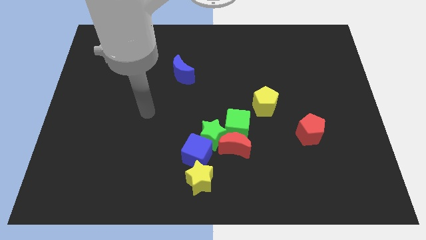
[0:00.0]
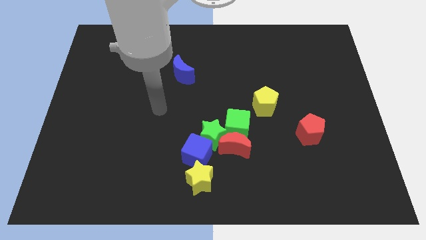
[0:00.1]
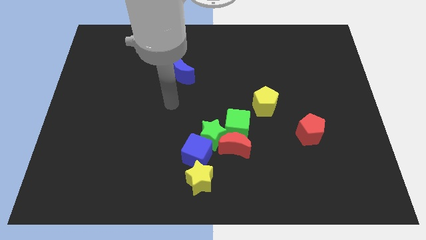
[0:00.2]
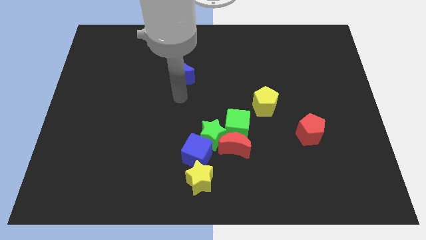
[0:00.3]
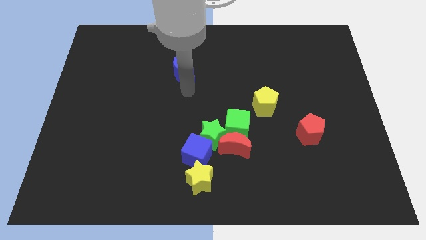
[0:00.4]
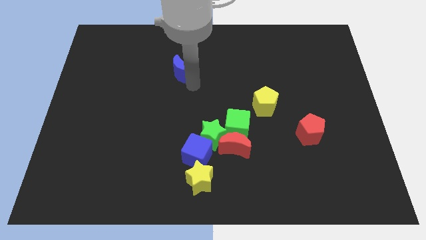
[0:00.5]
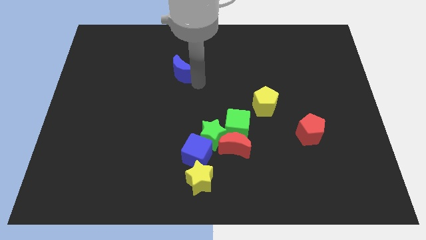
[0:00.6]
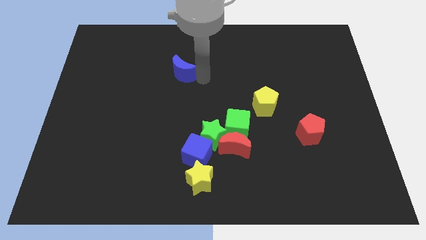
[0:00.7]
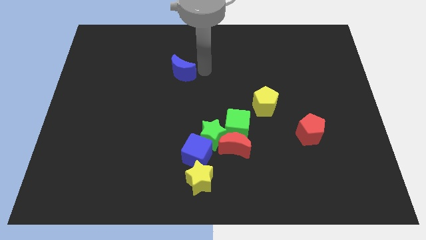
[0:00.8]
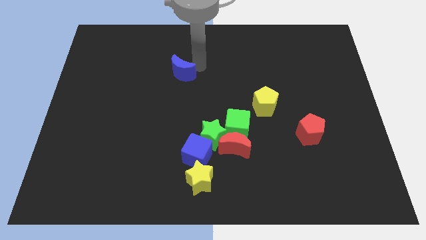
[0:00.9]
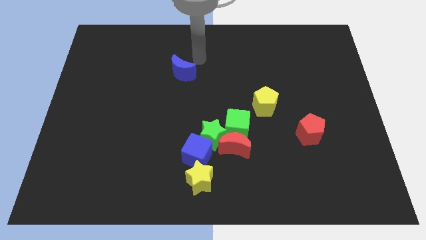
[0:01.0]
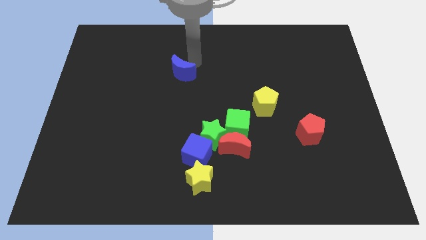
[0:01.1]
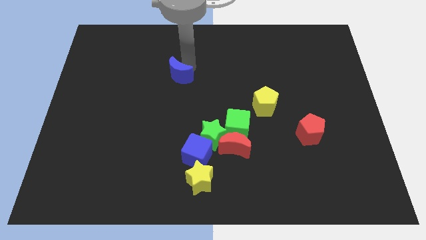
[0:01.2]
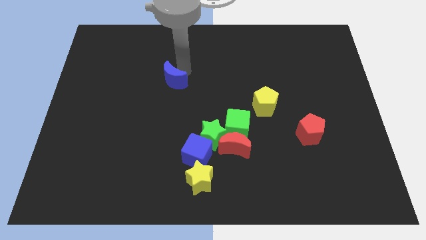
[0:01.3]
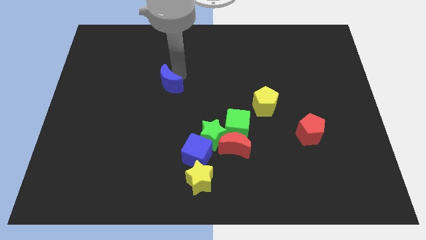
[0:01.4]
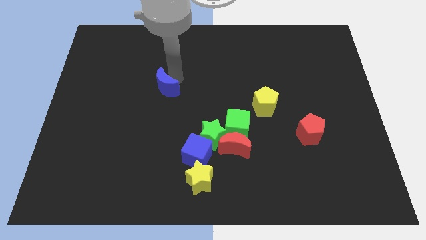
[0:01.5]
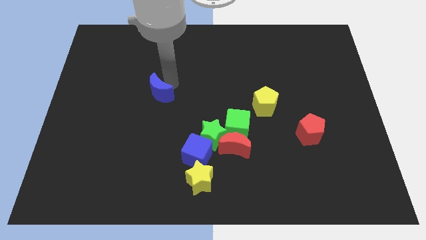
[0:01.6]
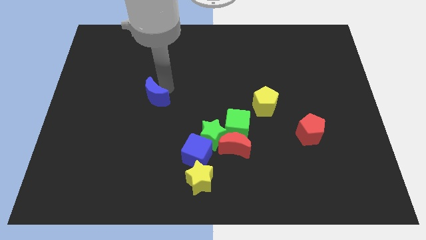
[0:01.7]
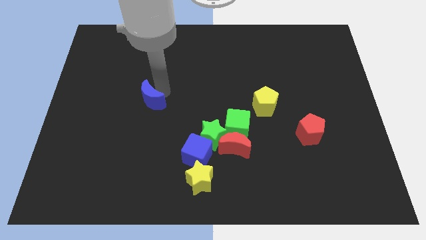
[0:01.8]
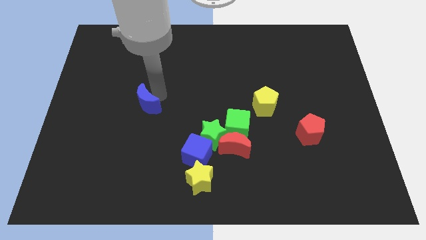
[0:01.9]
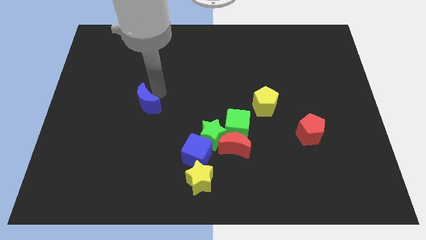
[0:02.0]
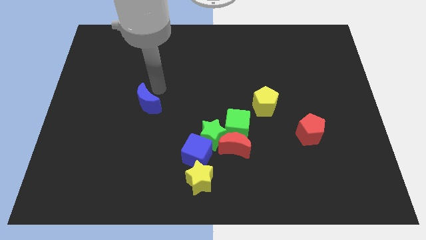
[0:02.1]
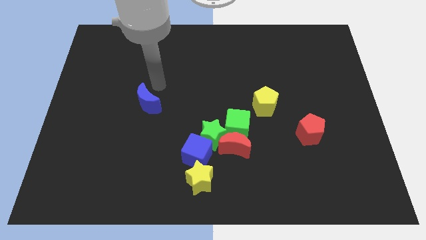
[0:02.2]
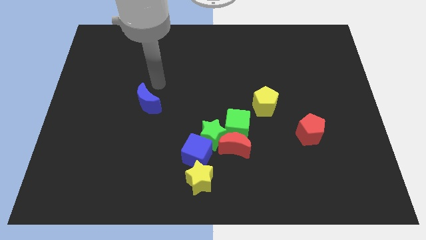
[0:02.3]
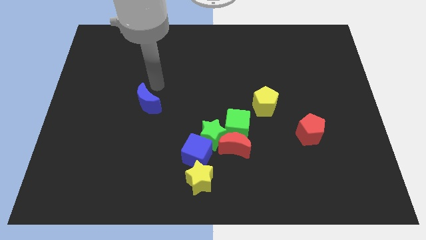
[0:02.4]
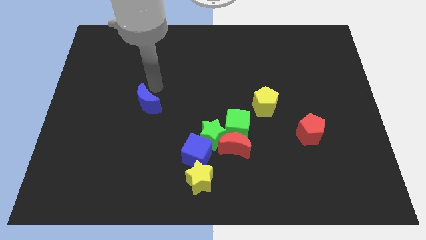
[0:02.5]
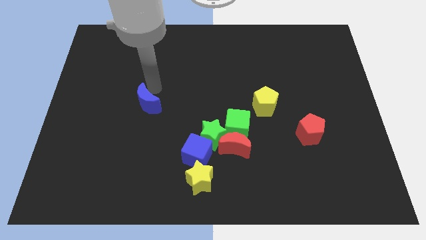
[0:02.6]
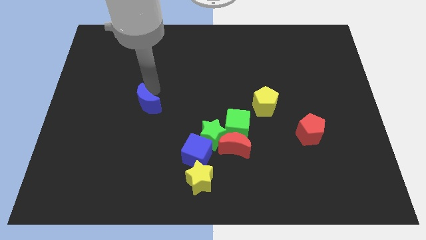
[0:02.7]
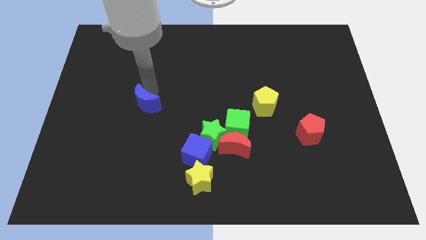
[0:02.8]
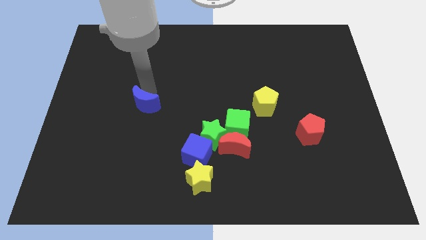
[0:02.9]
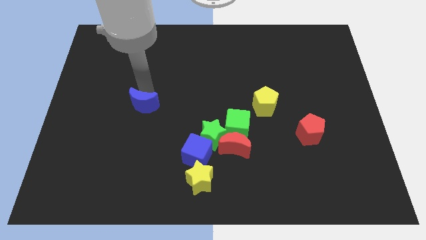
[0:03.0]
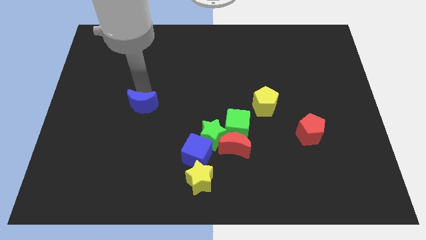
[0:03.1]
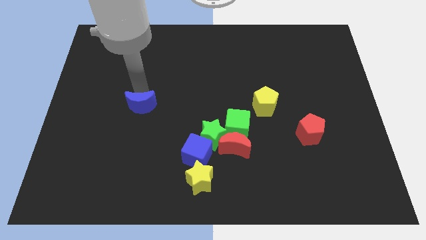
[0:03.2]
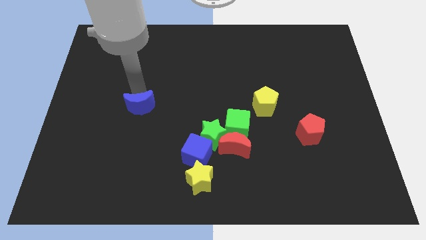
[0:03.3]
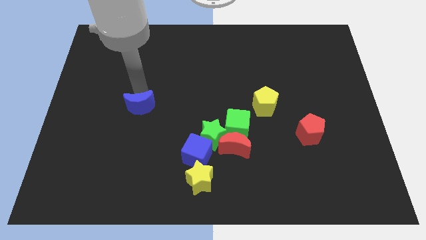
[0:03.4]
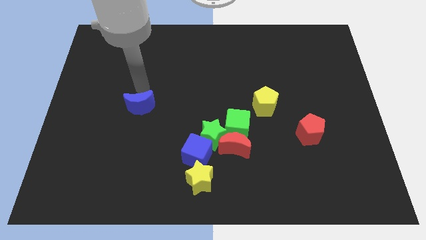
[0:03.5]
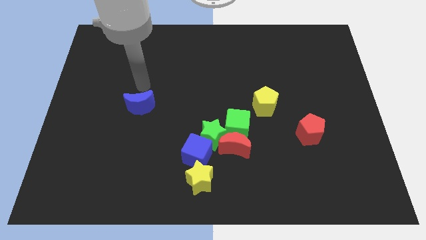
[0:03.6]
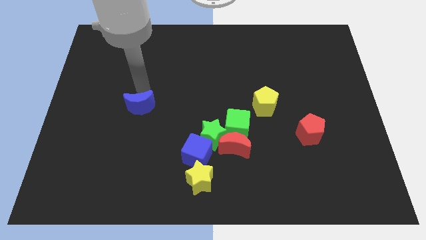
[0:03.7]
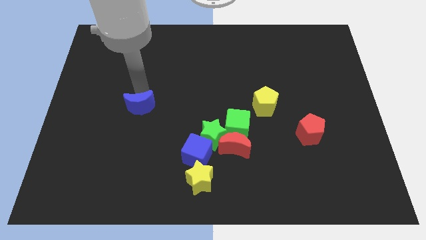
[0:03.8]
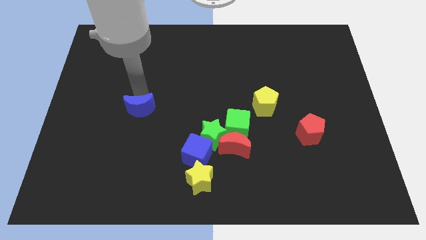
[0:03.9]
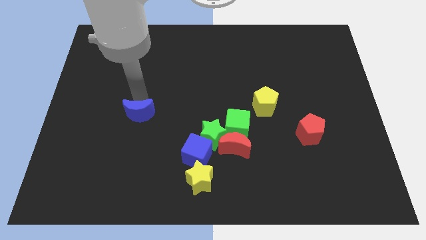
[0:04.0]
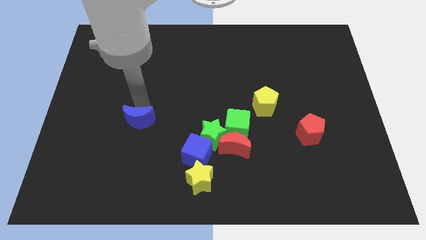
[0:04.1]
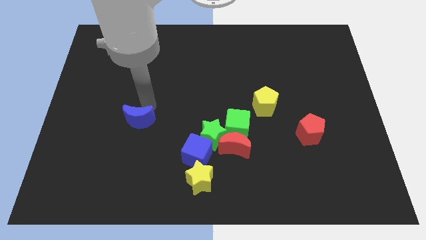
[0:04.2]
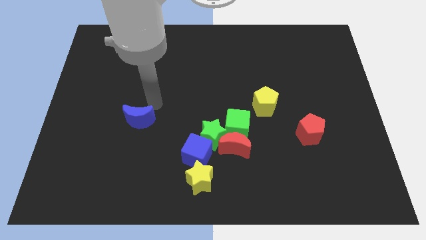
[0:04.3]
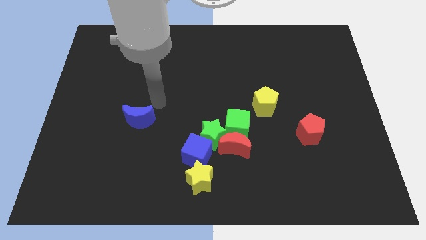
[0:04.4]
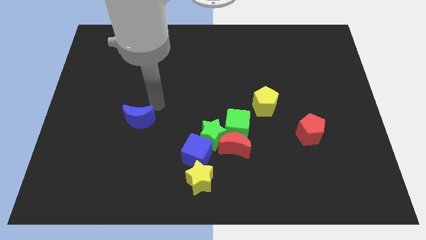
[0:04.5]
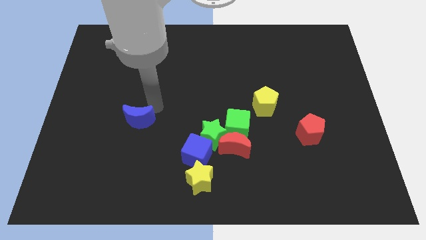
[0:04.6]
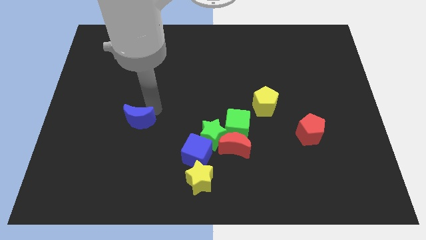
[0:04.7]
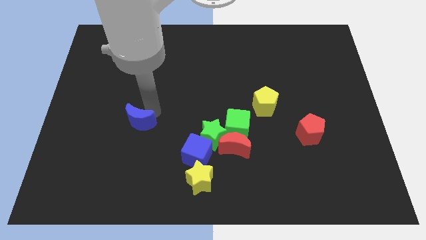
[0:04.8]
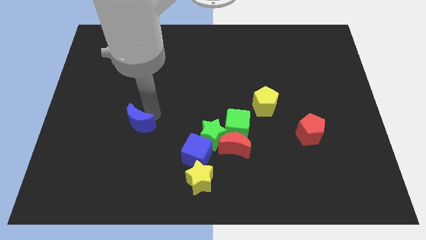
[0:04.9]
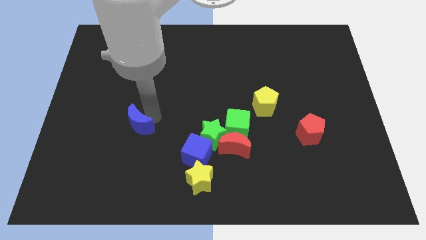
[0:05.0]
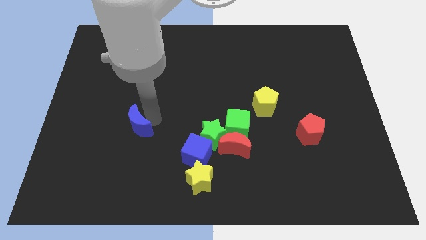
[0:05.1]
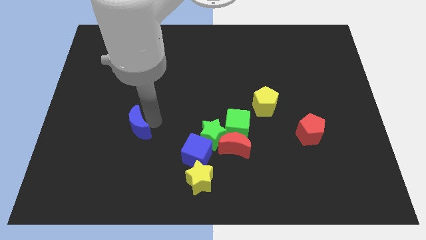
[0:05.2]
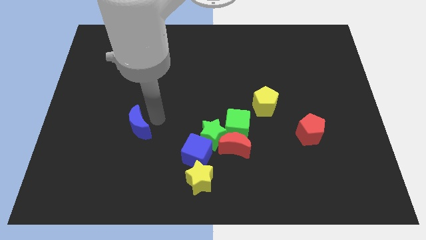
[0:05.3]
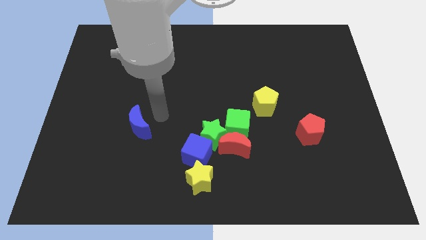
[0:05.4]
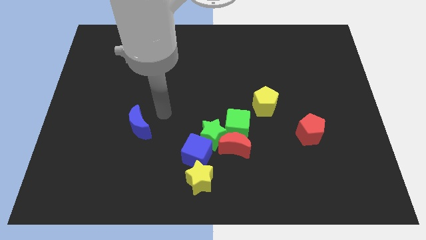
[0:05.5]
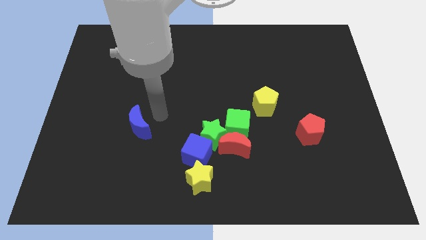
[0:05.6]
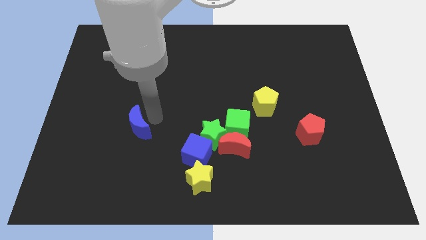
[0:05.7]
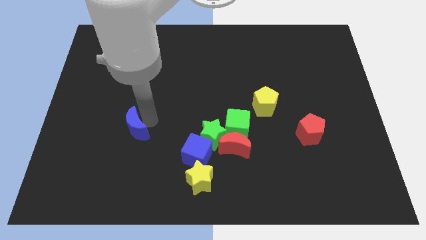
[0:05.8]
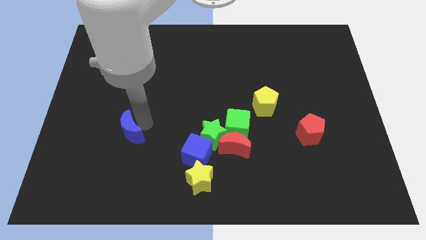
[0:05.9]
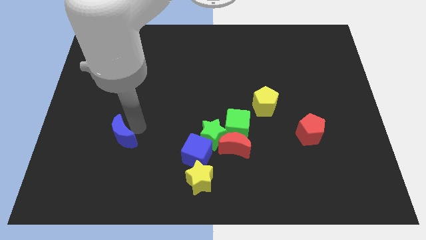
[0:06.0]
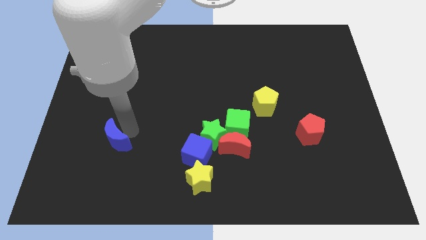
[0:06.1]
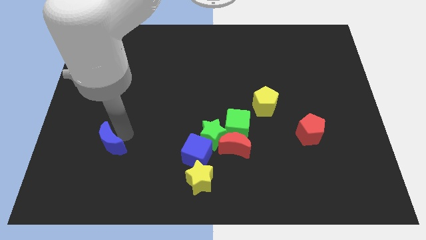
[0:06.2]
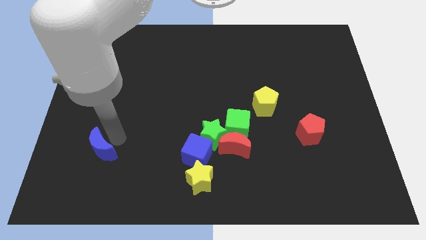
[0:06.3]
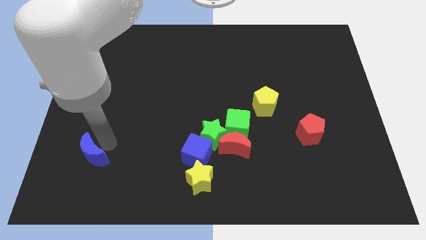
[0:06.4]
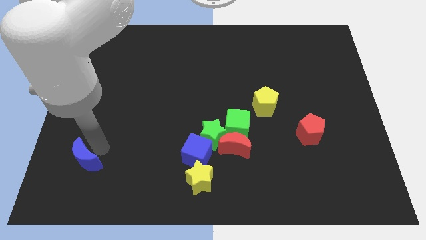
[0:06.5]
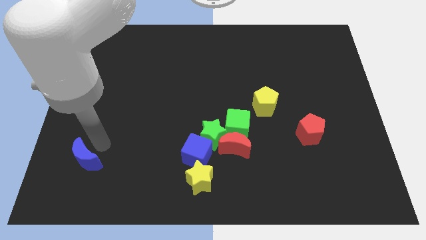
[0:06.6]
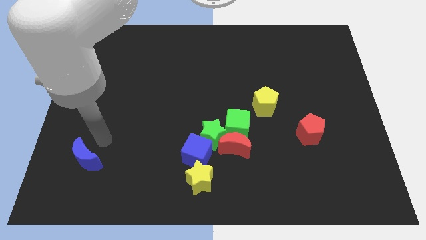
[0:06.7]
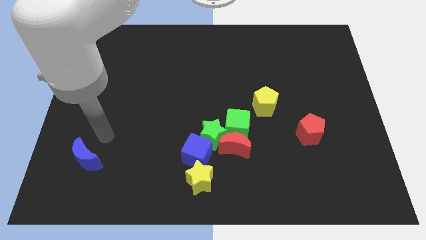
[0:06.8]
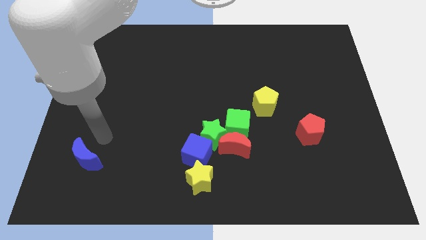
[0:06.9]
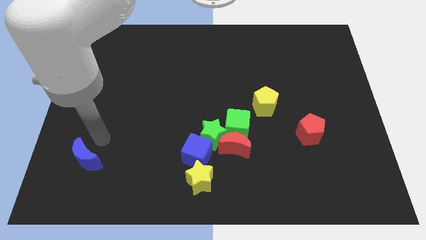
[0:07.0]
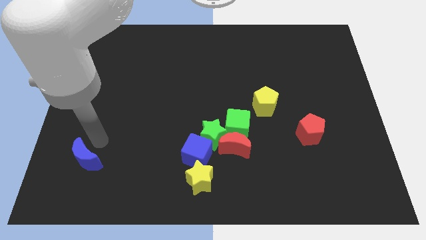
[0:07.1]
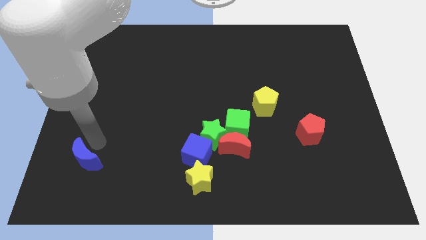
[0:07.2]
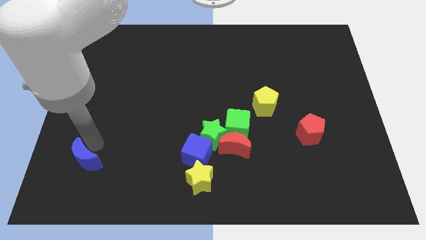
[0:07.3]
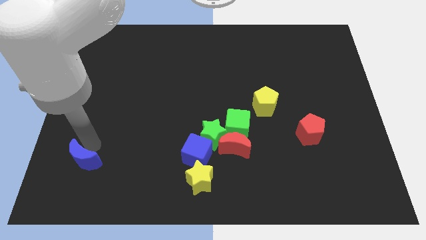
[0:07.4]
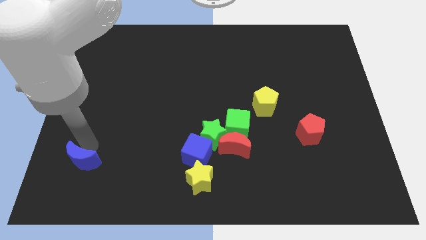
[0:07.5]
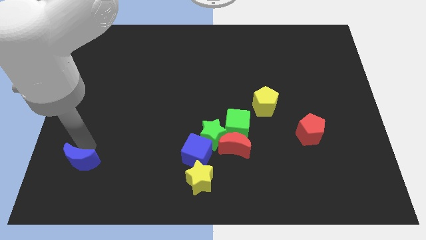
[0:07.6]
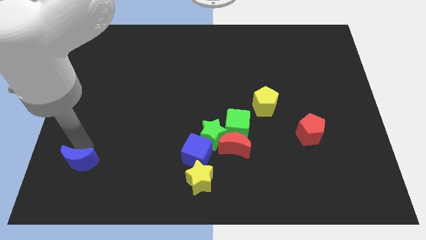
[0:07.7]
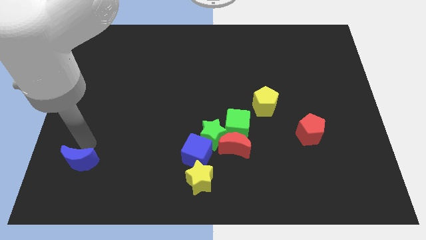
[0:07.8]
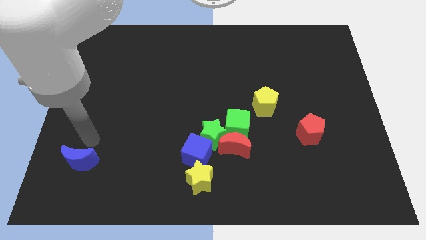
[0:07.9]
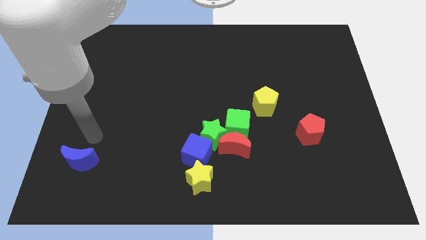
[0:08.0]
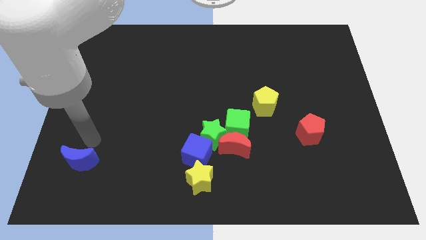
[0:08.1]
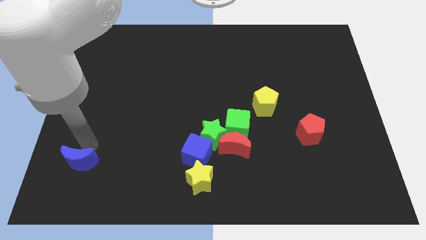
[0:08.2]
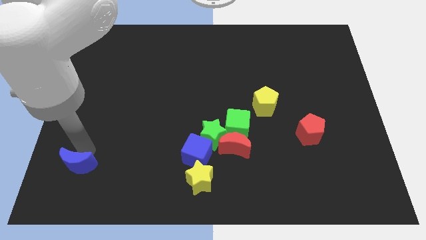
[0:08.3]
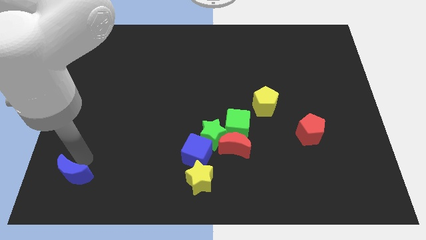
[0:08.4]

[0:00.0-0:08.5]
put the blue moon to the bottom left corner
